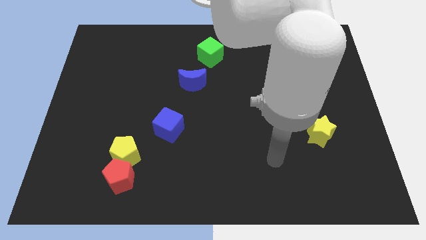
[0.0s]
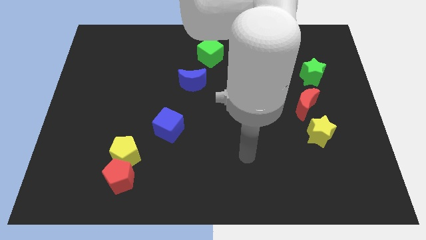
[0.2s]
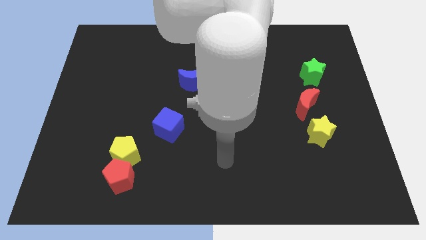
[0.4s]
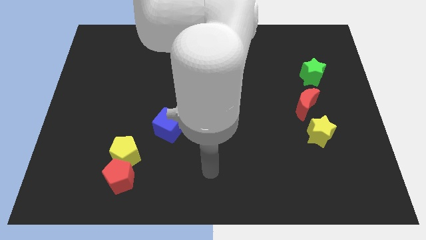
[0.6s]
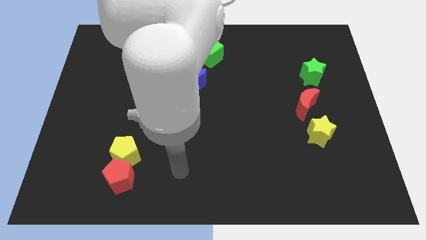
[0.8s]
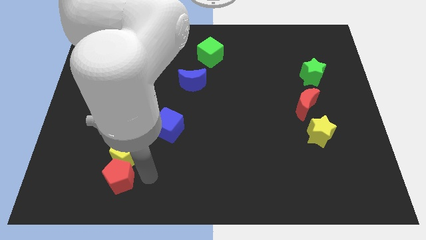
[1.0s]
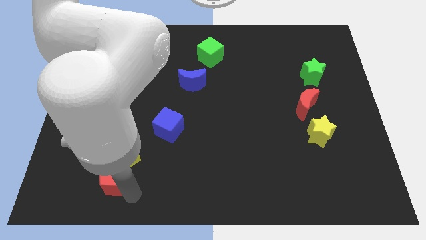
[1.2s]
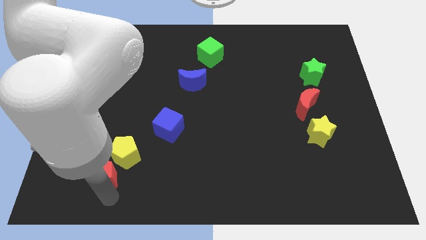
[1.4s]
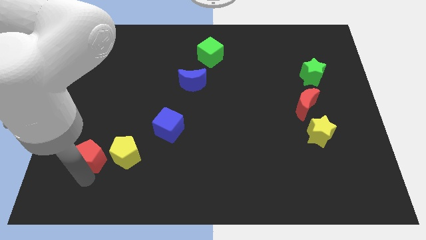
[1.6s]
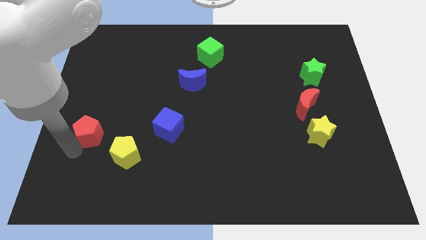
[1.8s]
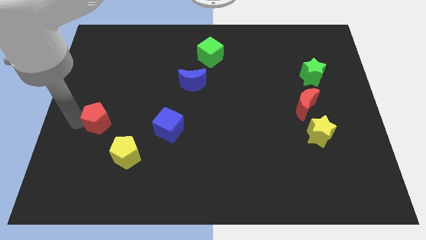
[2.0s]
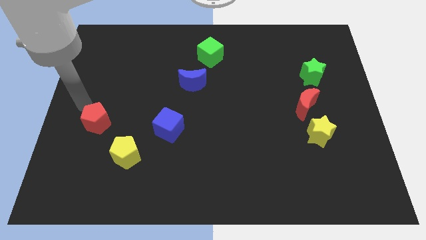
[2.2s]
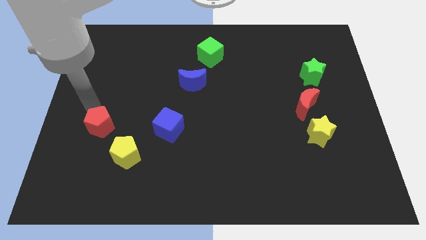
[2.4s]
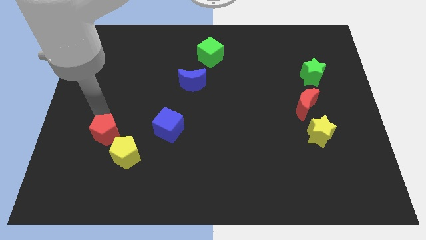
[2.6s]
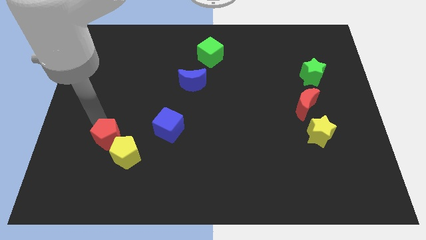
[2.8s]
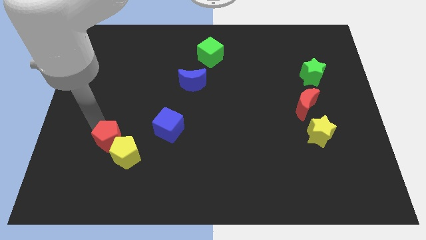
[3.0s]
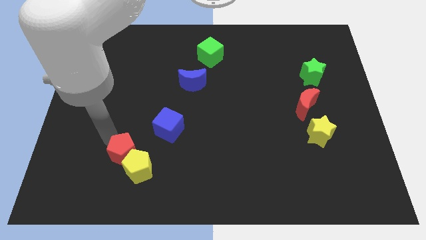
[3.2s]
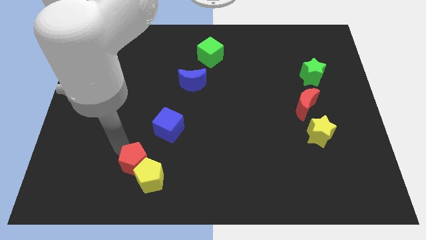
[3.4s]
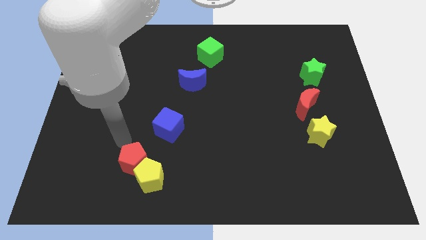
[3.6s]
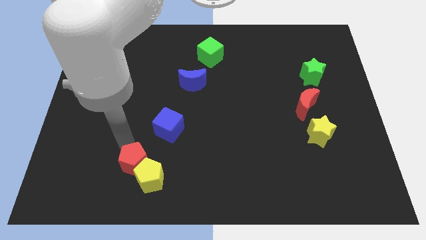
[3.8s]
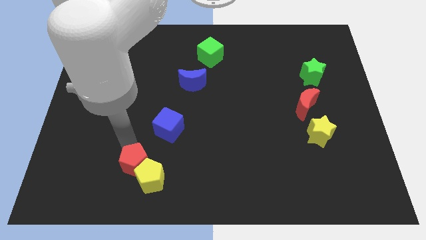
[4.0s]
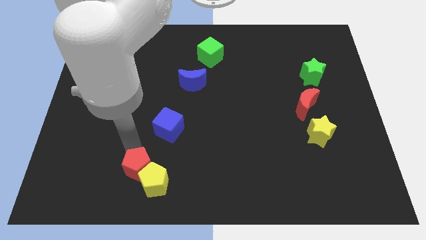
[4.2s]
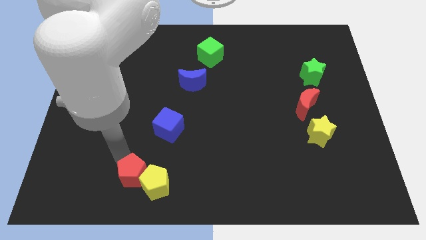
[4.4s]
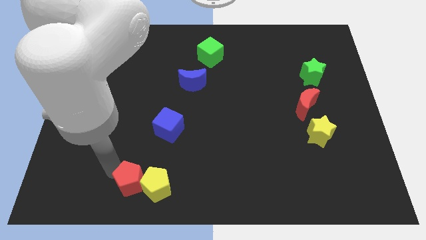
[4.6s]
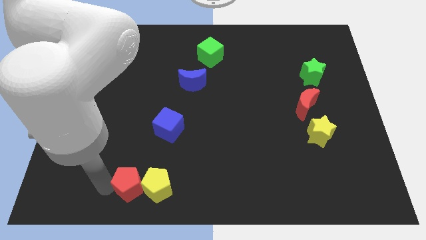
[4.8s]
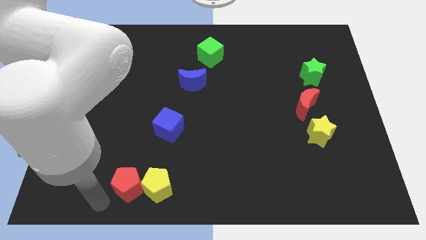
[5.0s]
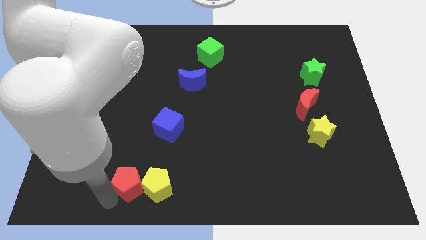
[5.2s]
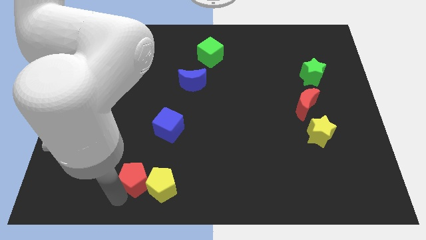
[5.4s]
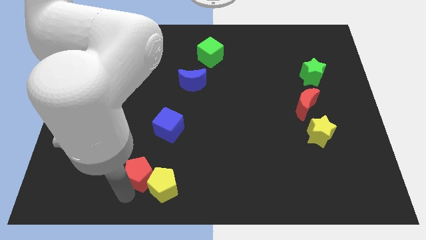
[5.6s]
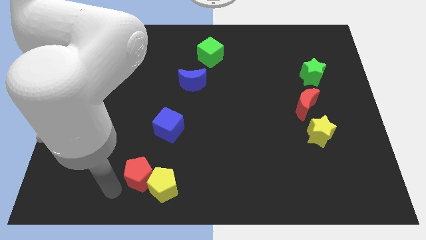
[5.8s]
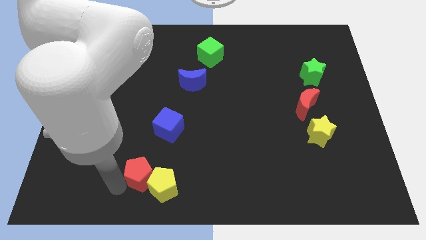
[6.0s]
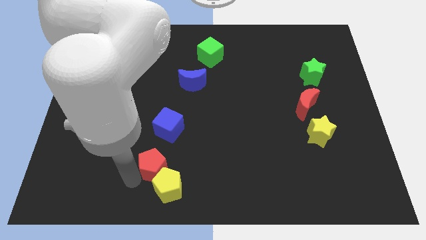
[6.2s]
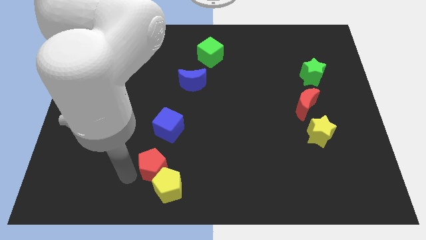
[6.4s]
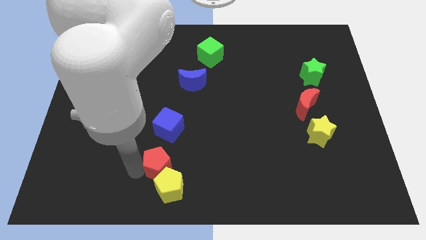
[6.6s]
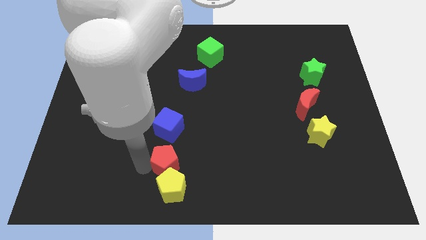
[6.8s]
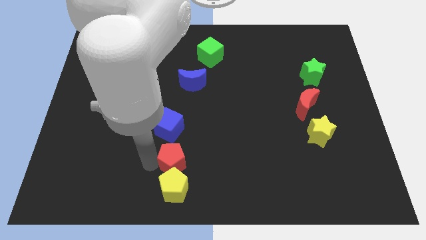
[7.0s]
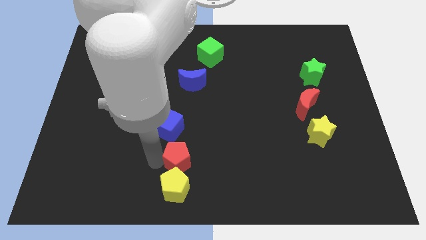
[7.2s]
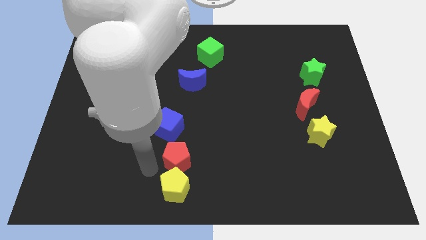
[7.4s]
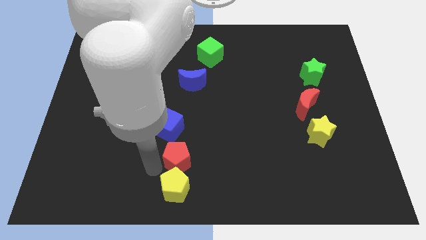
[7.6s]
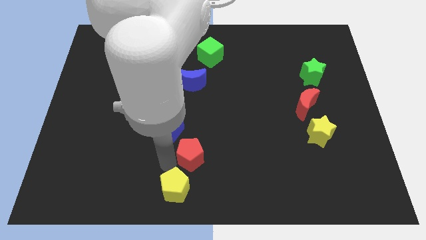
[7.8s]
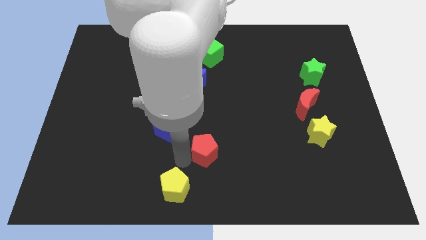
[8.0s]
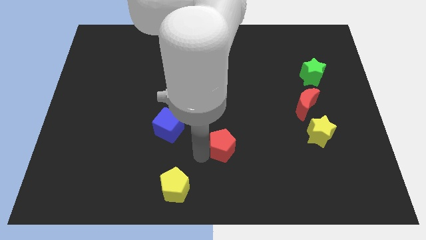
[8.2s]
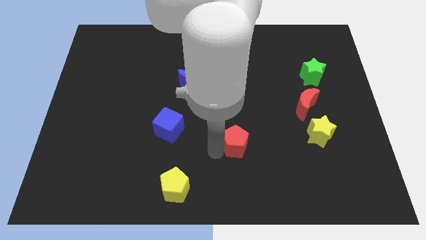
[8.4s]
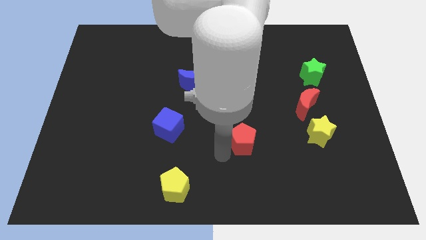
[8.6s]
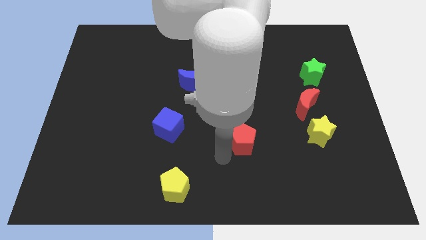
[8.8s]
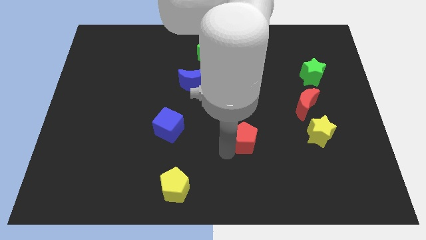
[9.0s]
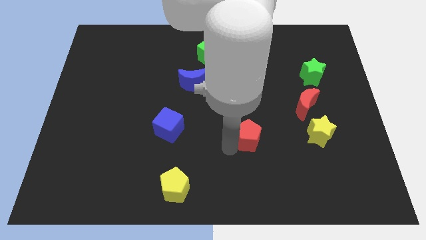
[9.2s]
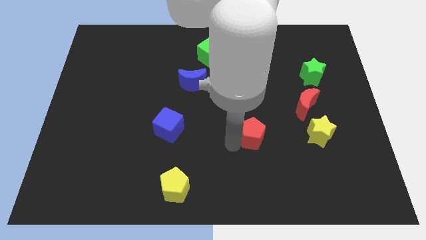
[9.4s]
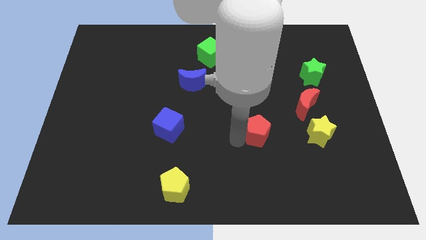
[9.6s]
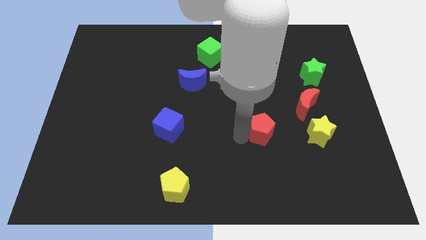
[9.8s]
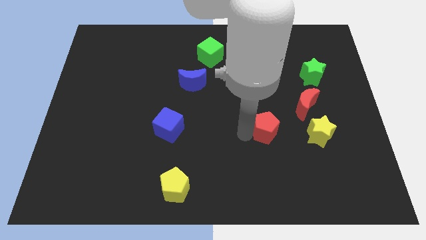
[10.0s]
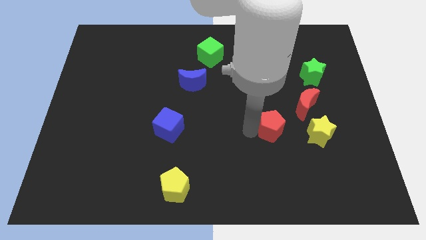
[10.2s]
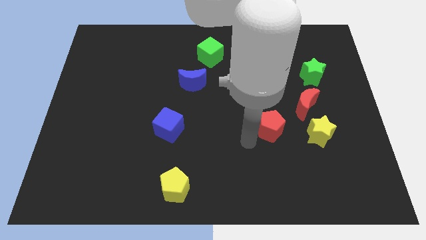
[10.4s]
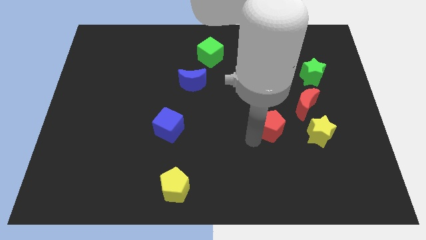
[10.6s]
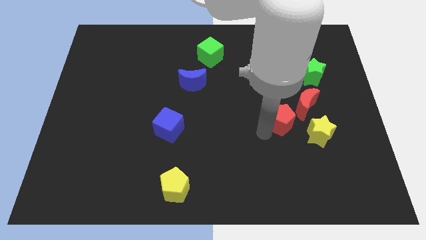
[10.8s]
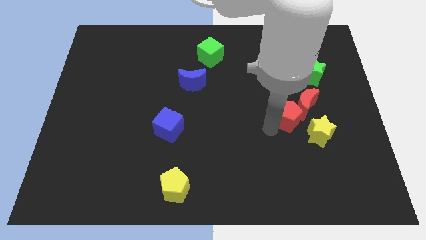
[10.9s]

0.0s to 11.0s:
move the red pentagon towards the red moon

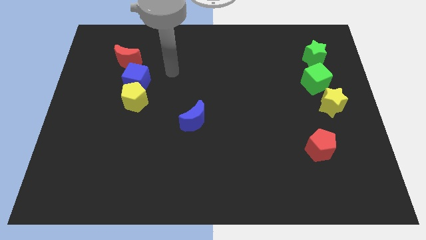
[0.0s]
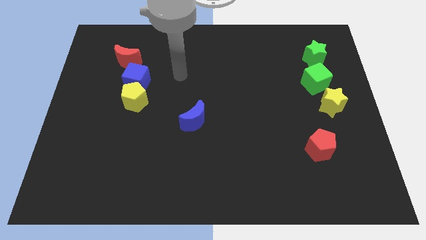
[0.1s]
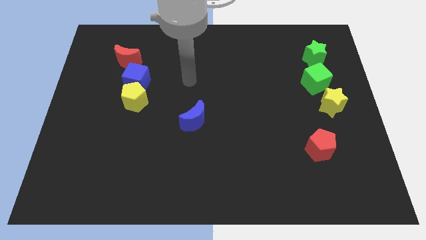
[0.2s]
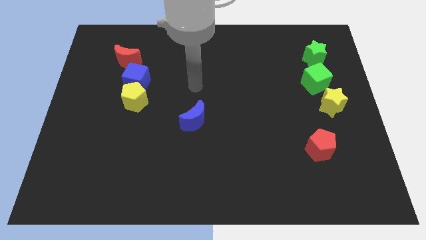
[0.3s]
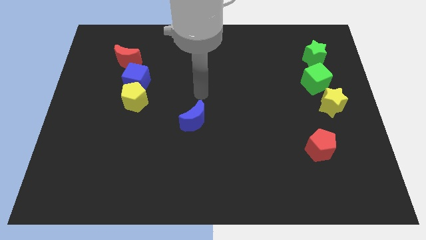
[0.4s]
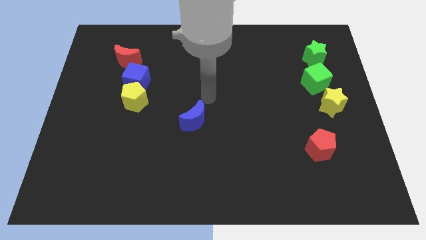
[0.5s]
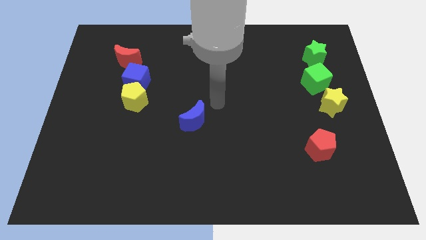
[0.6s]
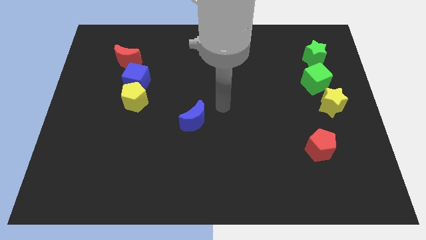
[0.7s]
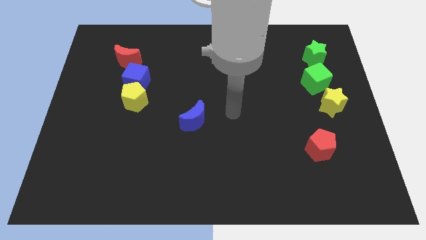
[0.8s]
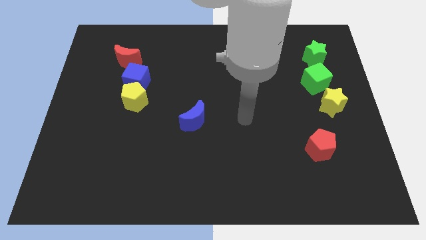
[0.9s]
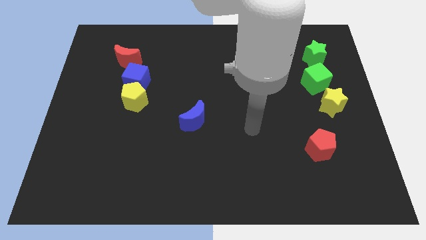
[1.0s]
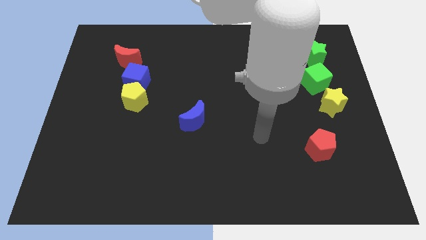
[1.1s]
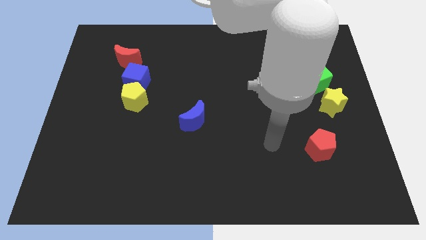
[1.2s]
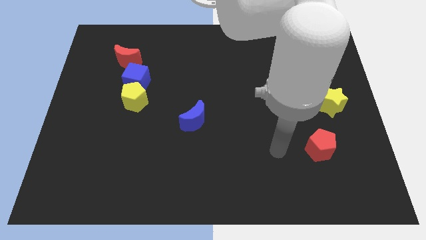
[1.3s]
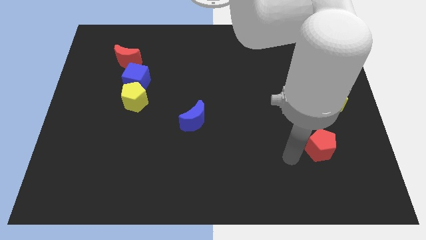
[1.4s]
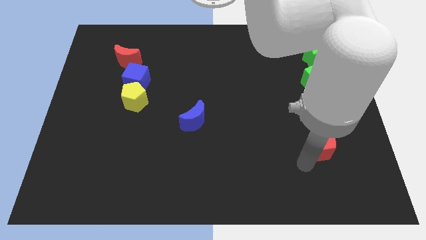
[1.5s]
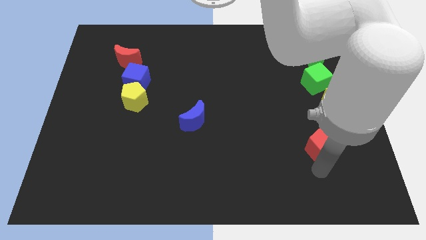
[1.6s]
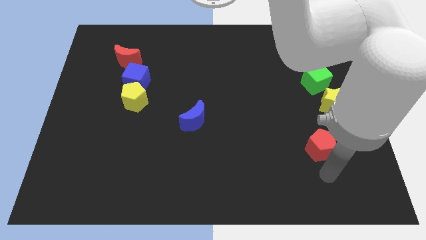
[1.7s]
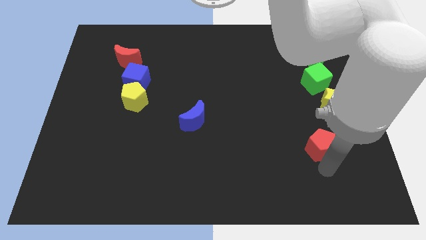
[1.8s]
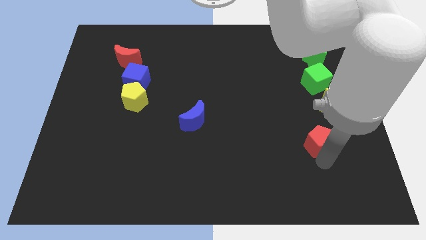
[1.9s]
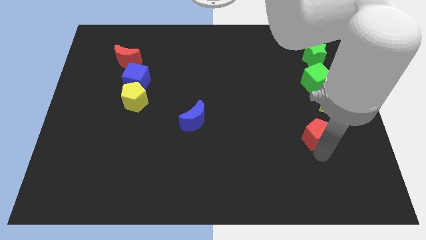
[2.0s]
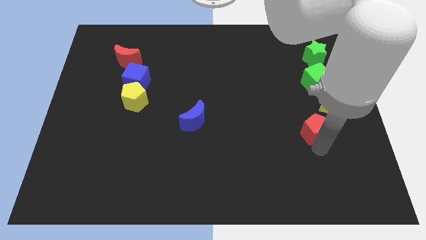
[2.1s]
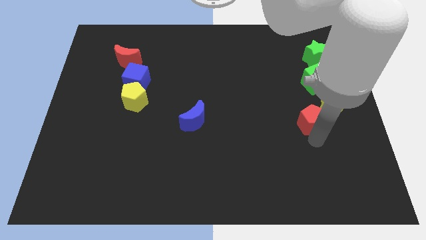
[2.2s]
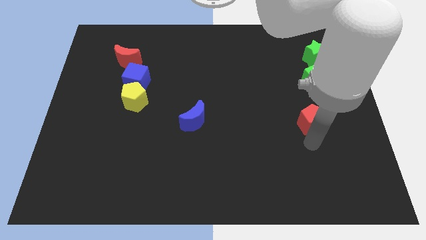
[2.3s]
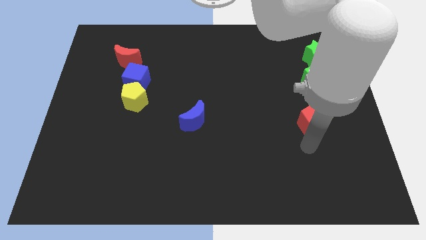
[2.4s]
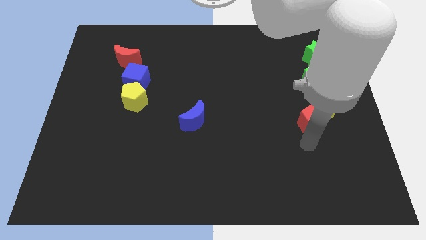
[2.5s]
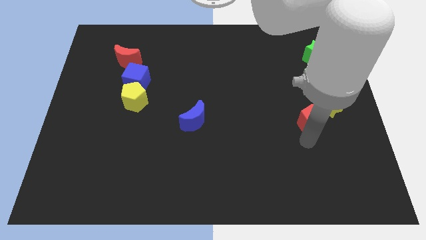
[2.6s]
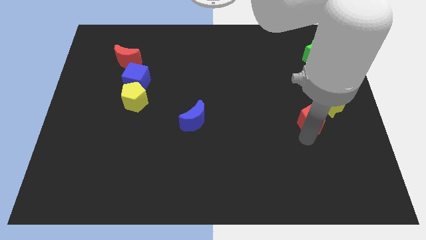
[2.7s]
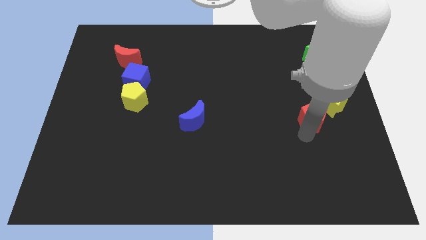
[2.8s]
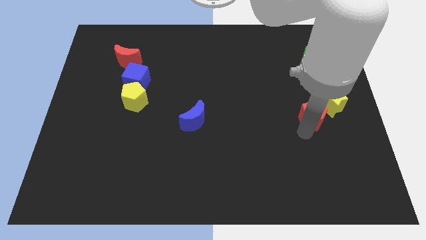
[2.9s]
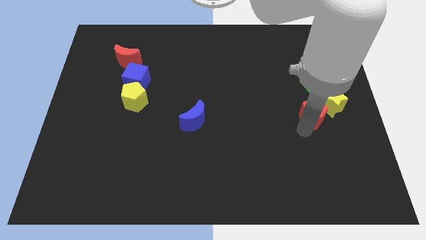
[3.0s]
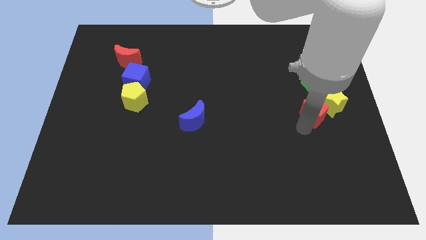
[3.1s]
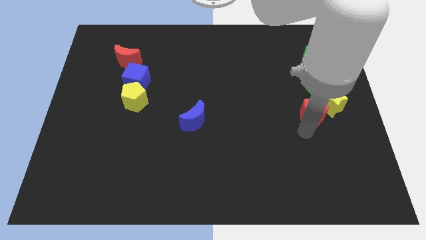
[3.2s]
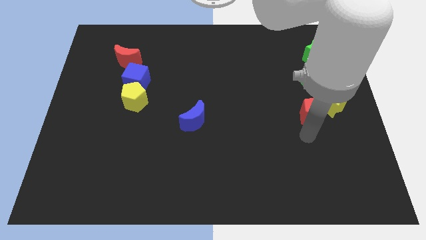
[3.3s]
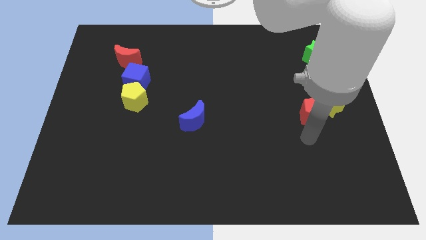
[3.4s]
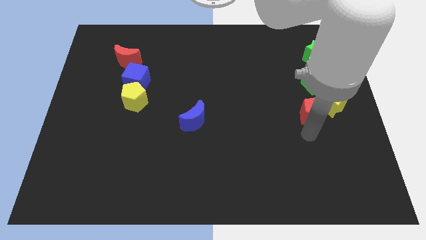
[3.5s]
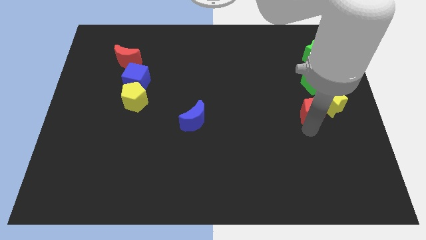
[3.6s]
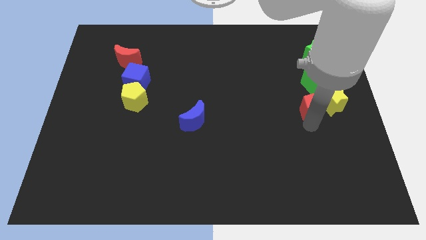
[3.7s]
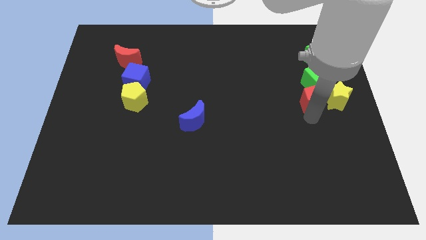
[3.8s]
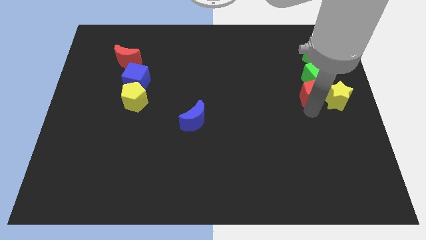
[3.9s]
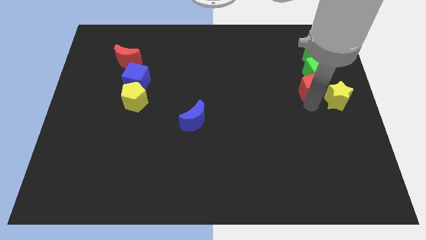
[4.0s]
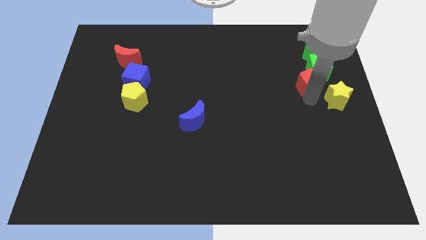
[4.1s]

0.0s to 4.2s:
push the red pentagon close to the green cube
